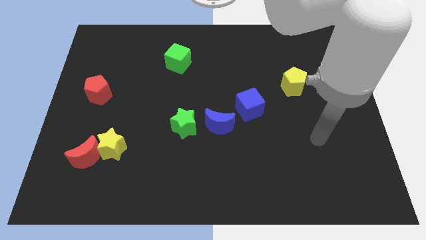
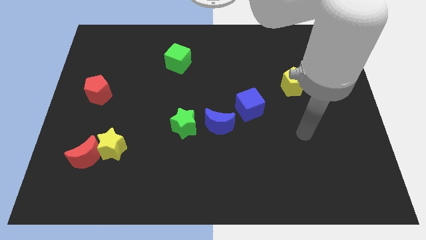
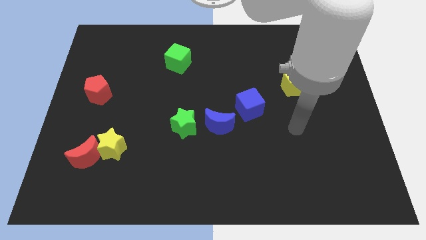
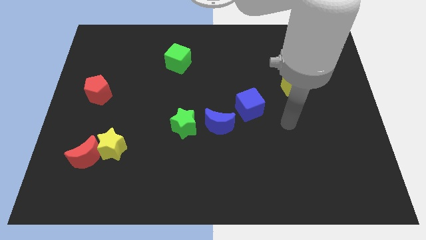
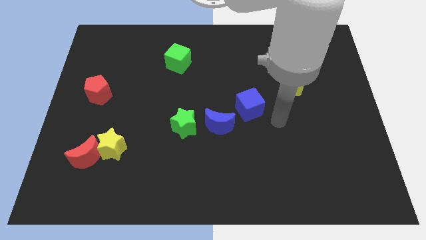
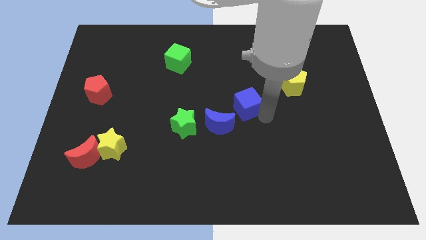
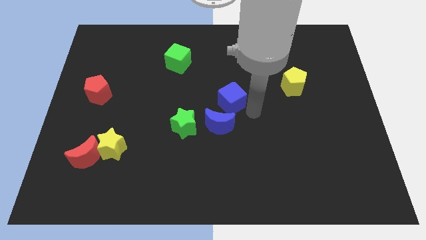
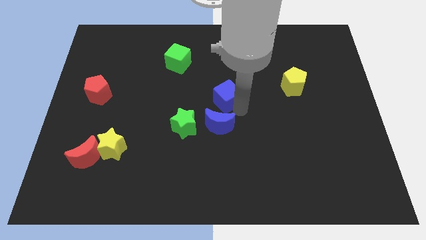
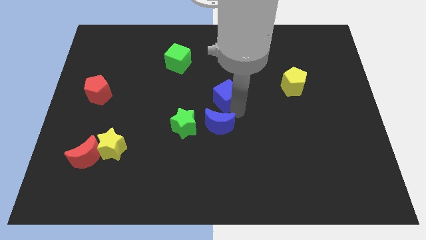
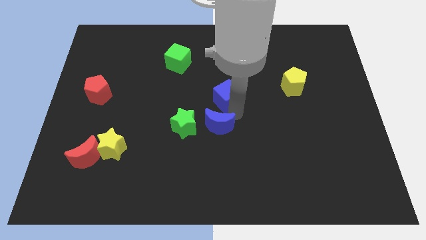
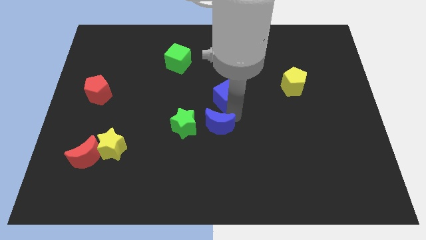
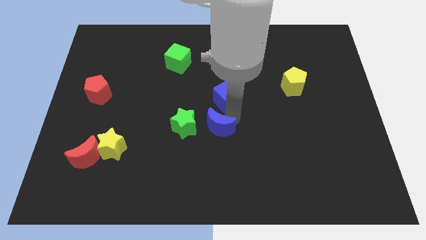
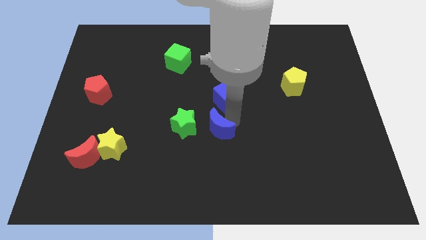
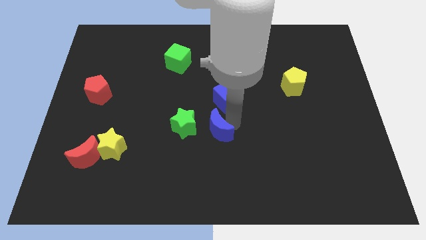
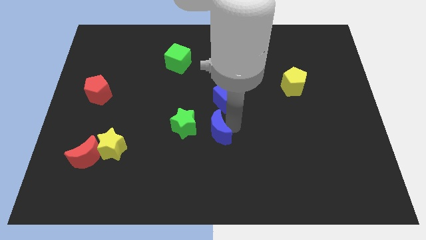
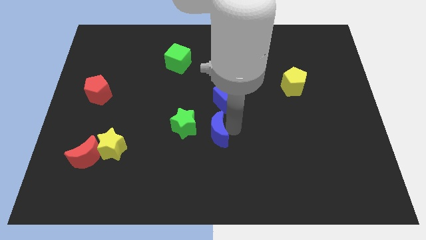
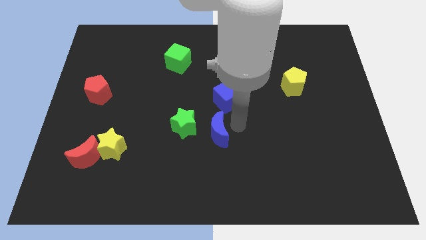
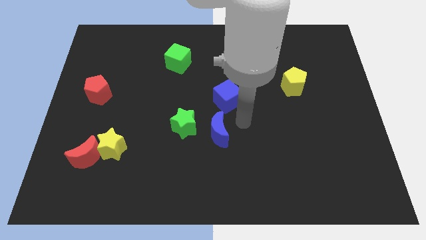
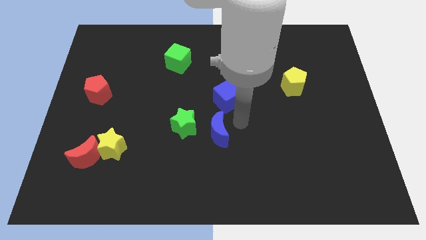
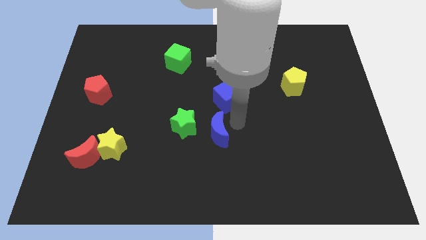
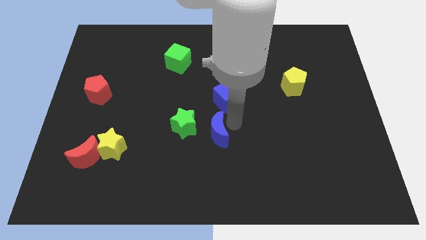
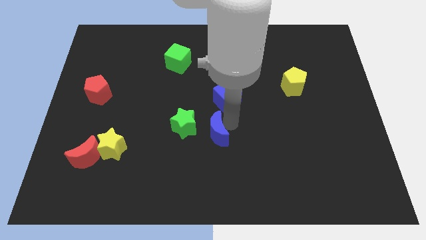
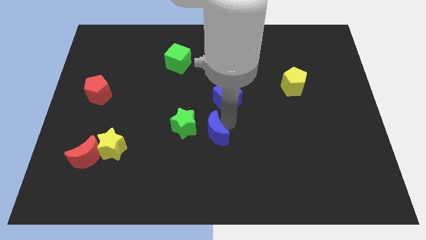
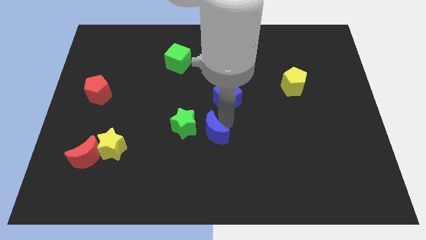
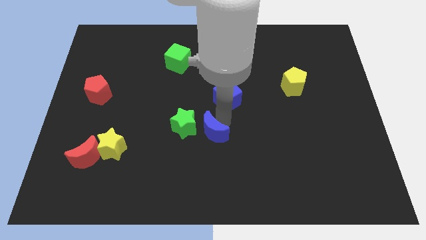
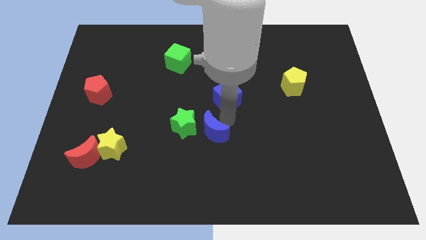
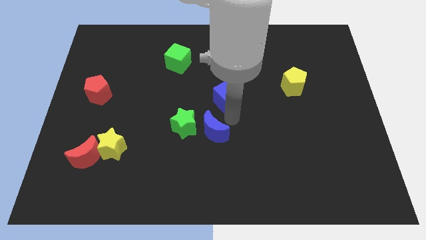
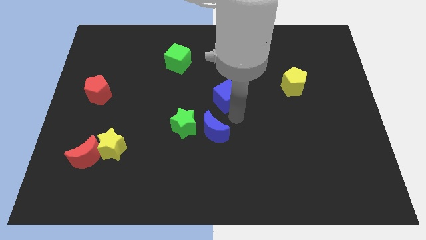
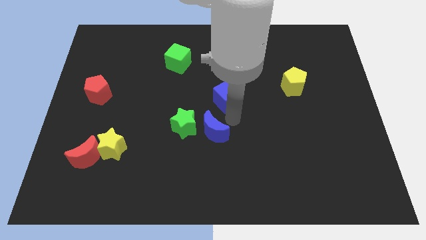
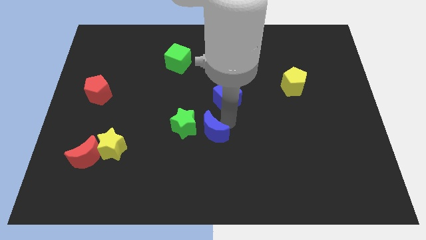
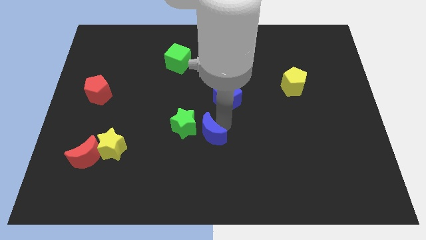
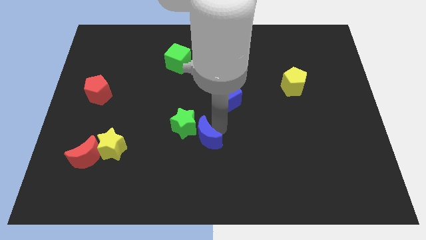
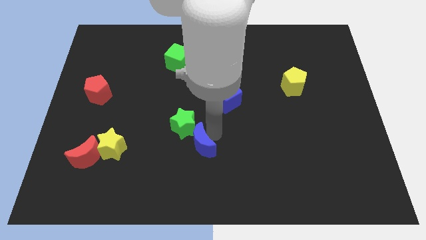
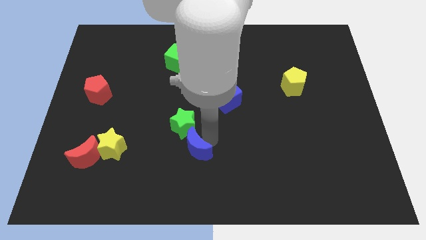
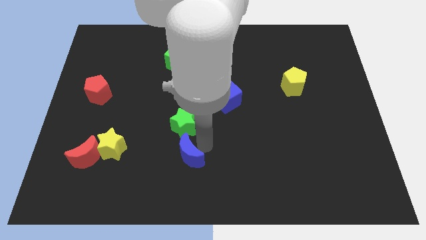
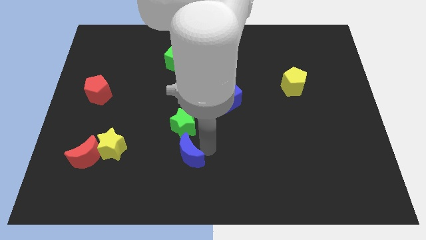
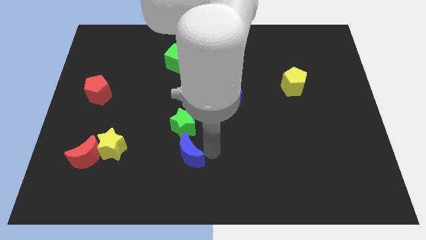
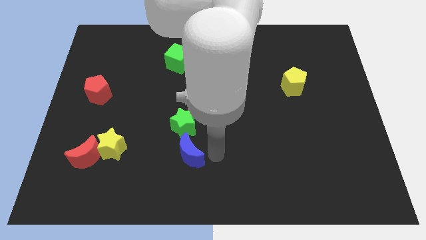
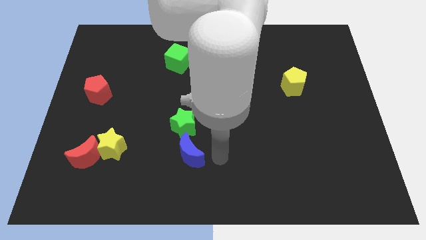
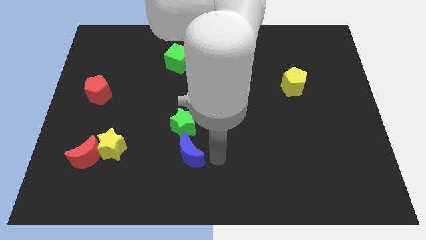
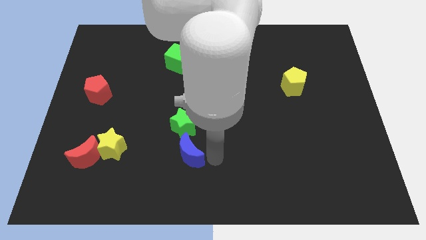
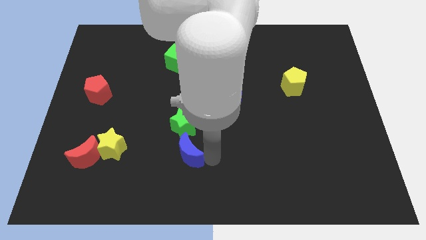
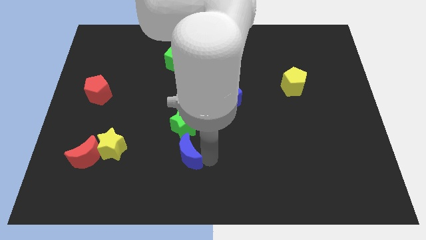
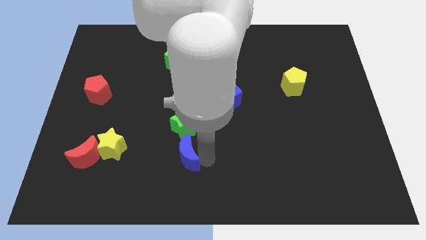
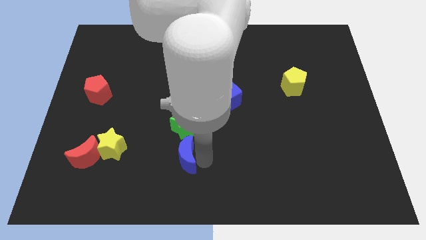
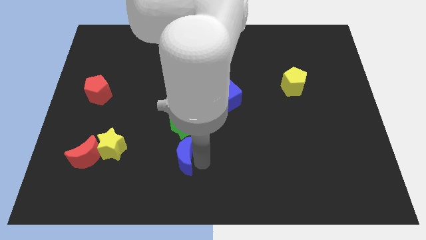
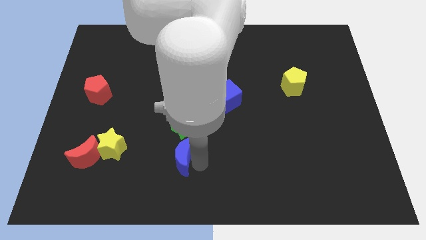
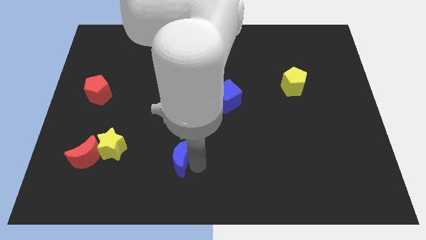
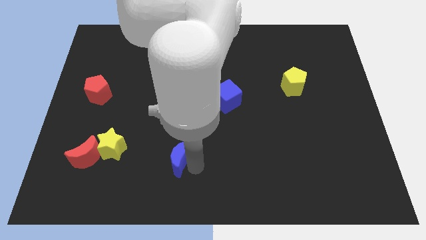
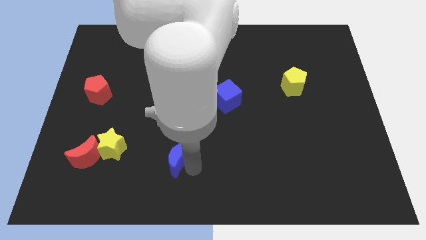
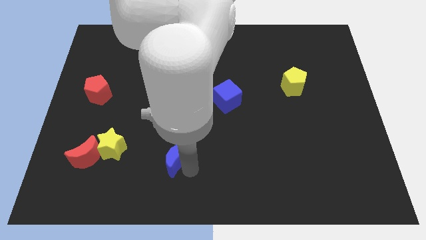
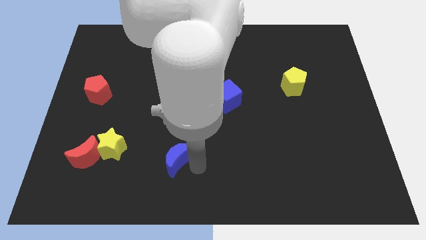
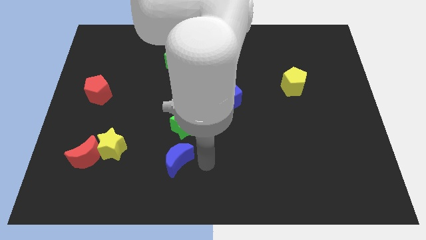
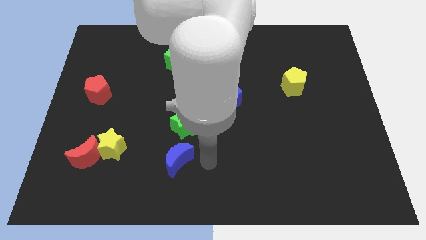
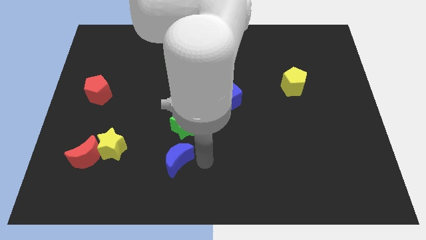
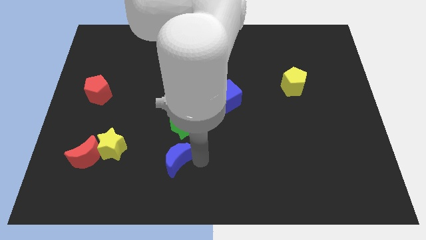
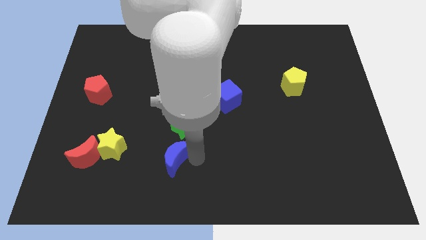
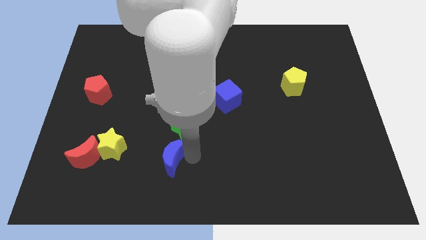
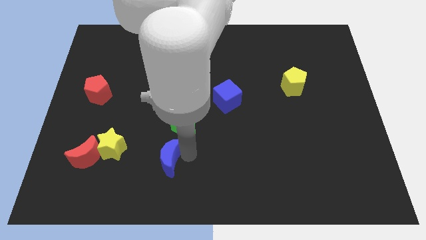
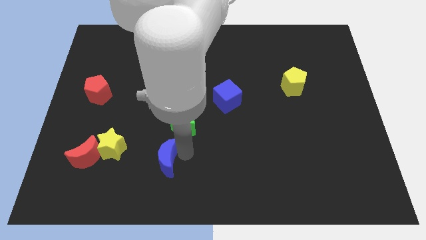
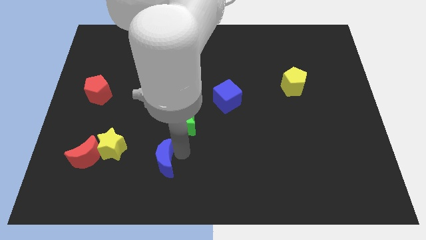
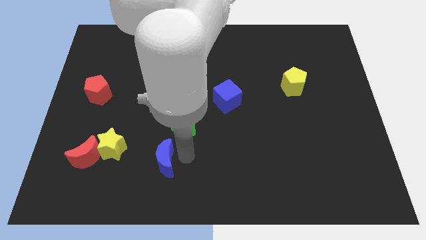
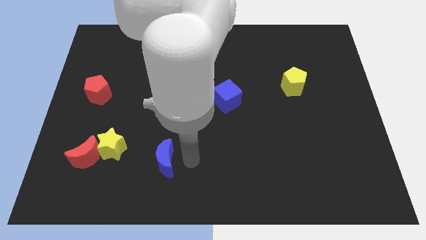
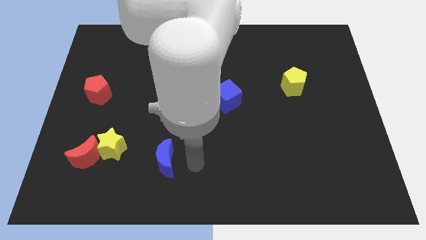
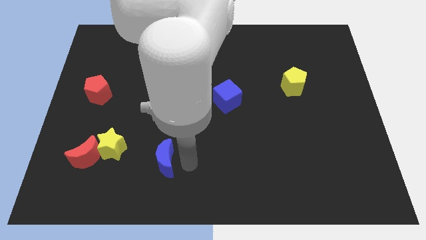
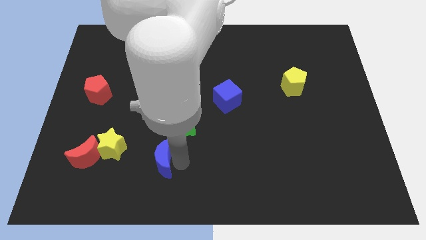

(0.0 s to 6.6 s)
push the blue moon to the right of the red moon
